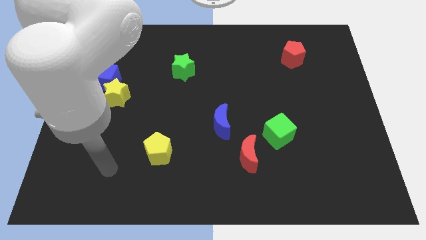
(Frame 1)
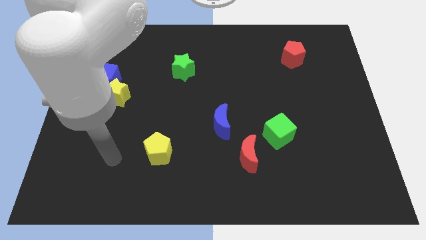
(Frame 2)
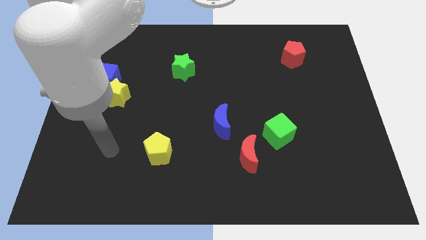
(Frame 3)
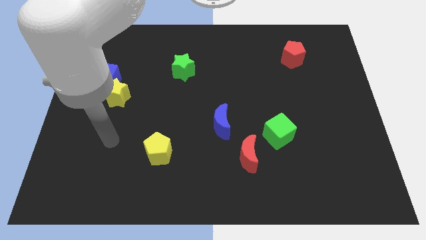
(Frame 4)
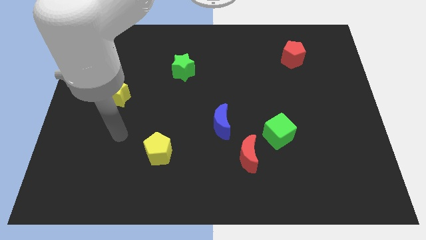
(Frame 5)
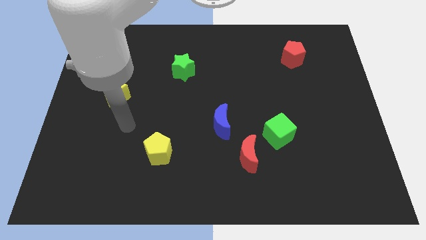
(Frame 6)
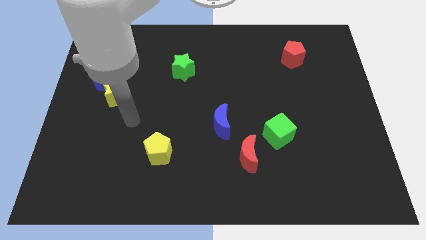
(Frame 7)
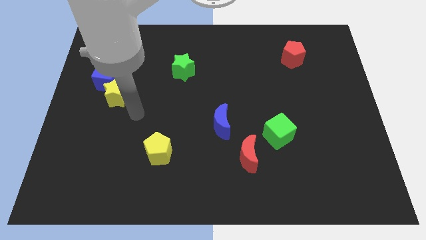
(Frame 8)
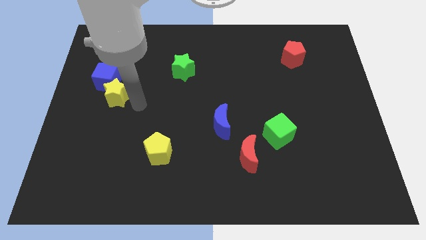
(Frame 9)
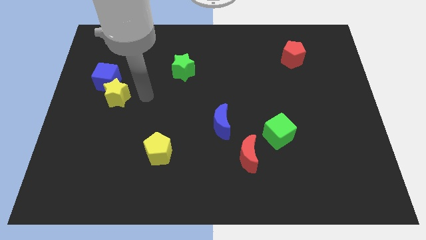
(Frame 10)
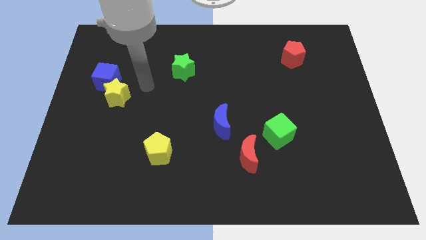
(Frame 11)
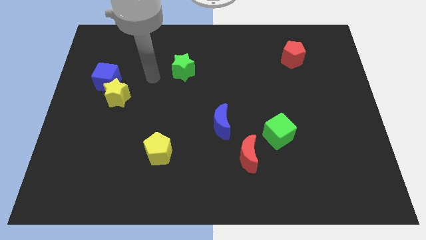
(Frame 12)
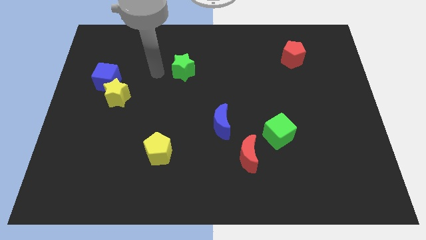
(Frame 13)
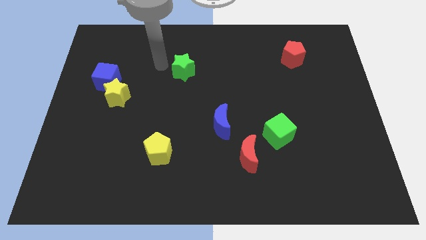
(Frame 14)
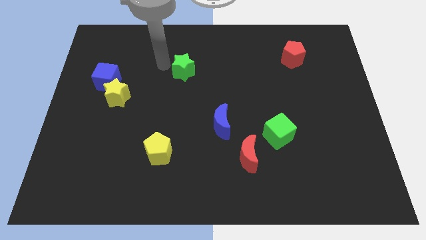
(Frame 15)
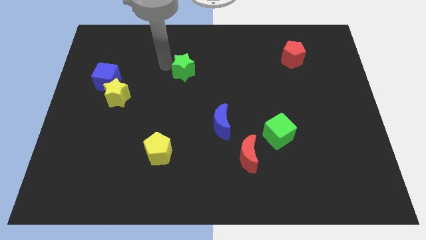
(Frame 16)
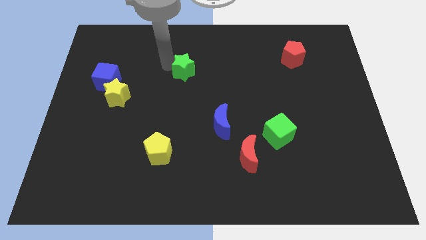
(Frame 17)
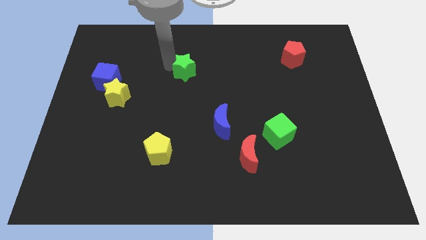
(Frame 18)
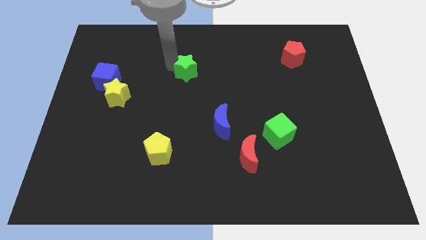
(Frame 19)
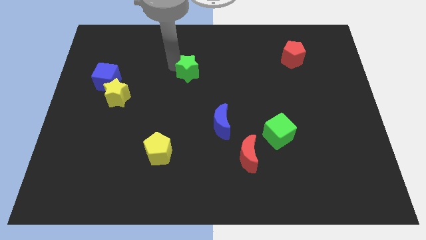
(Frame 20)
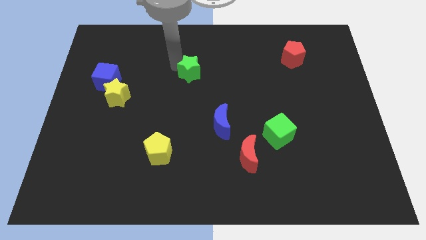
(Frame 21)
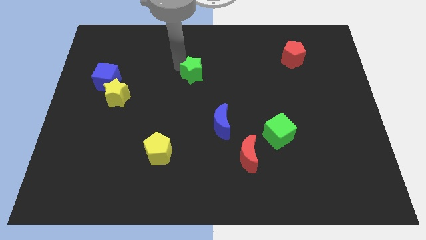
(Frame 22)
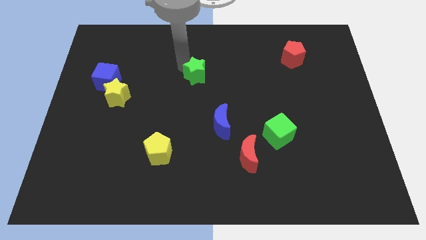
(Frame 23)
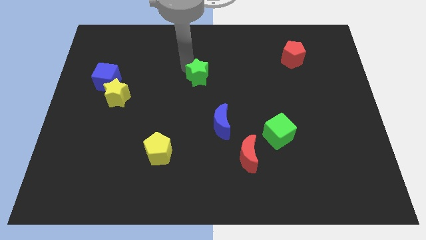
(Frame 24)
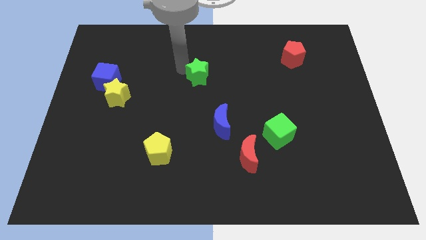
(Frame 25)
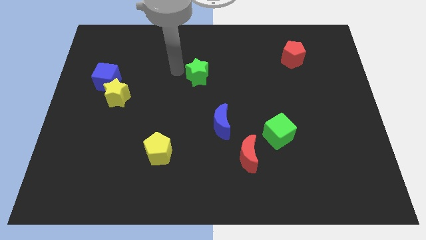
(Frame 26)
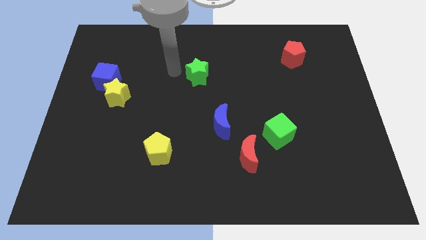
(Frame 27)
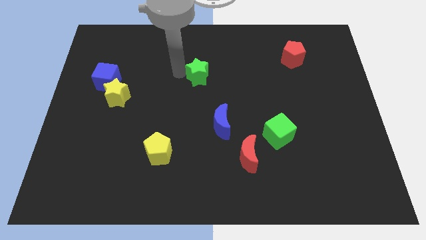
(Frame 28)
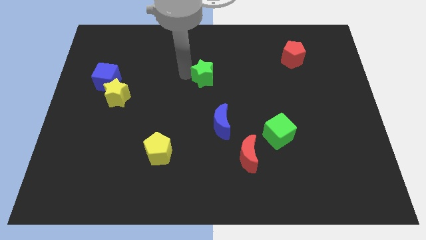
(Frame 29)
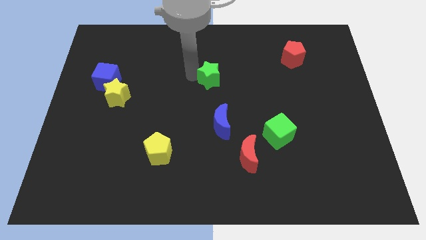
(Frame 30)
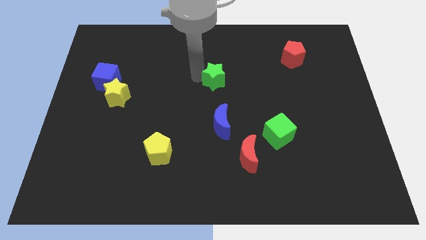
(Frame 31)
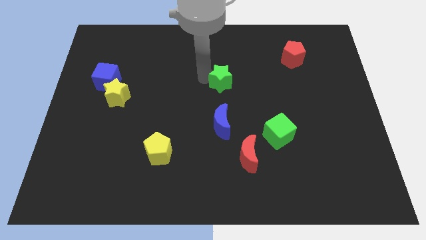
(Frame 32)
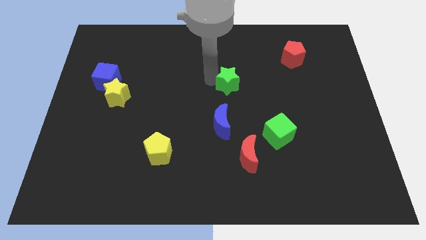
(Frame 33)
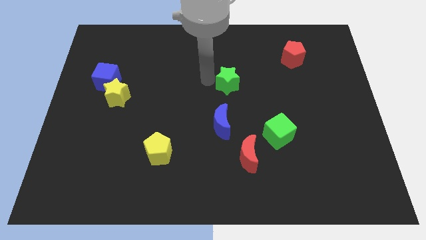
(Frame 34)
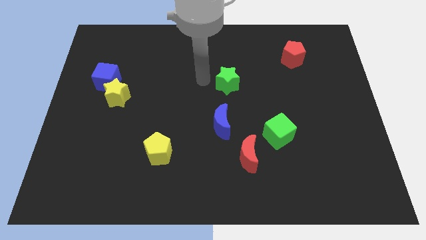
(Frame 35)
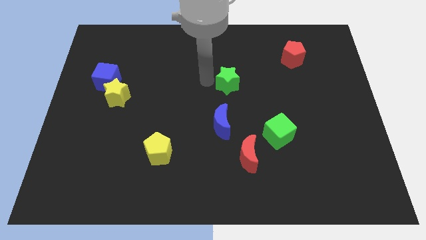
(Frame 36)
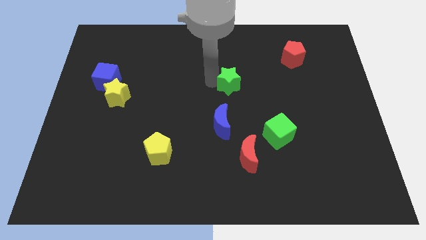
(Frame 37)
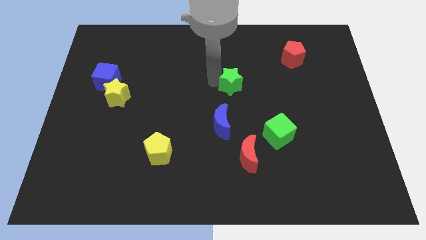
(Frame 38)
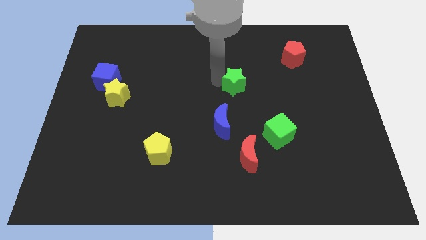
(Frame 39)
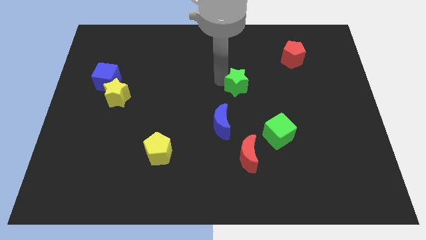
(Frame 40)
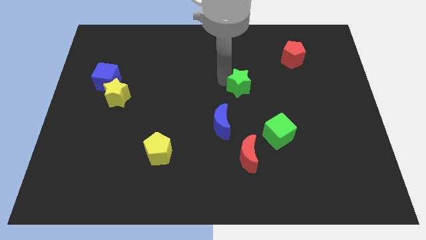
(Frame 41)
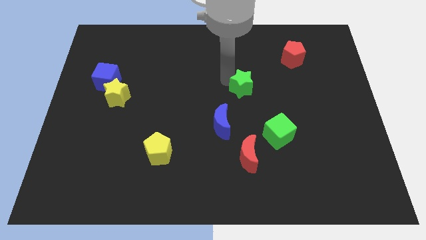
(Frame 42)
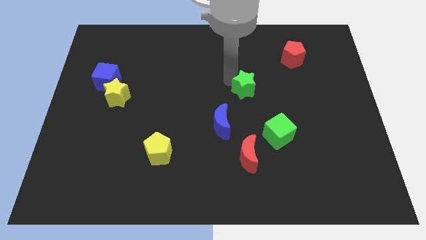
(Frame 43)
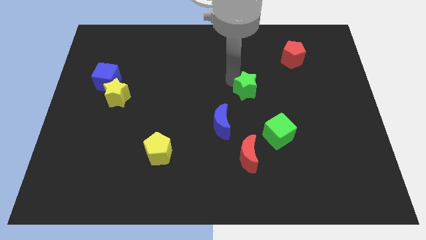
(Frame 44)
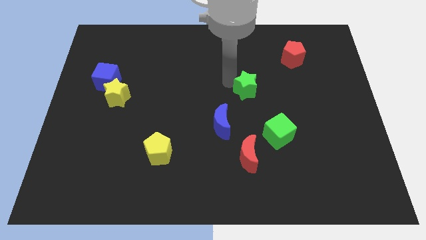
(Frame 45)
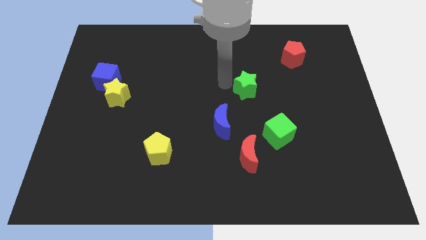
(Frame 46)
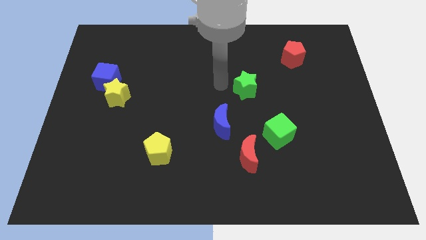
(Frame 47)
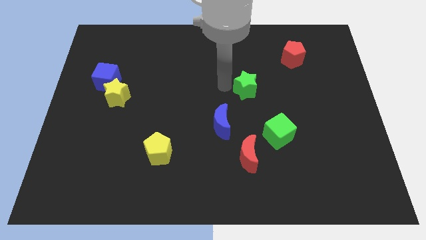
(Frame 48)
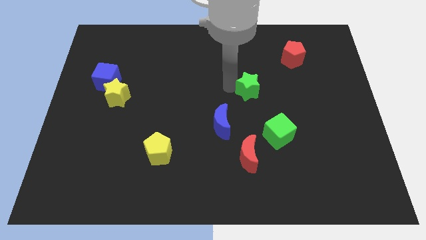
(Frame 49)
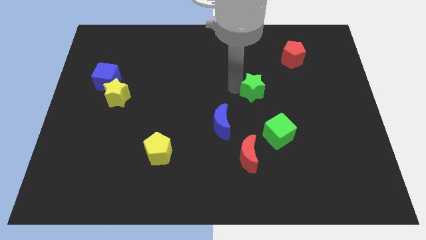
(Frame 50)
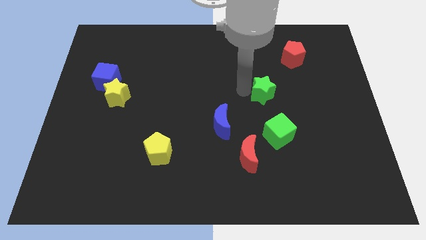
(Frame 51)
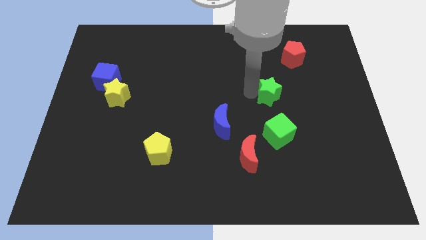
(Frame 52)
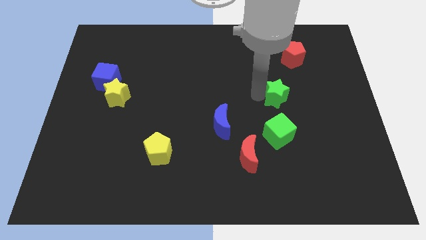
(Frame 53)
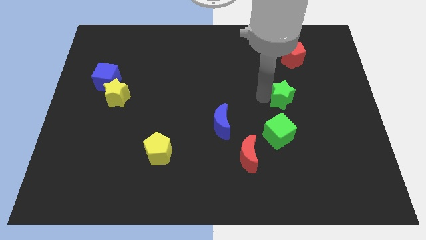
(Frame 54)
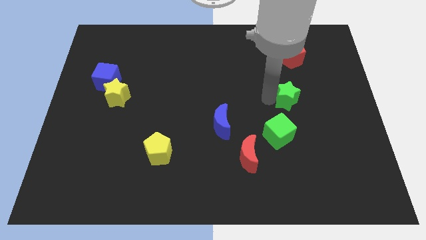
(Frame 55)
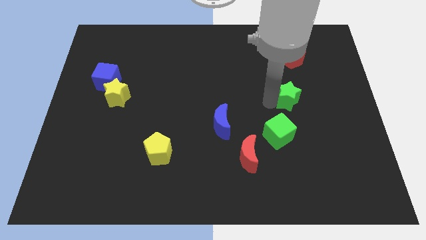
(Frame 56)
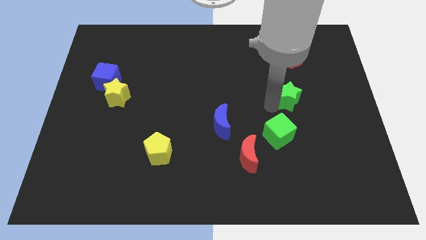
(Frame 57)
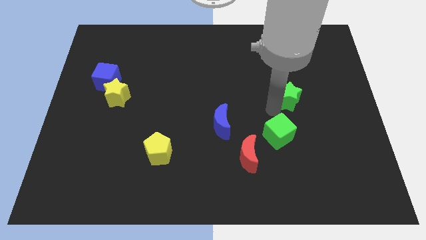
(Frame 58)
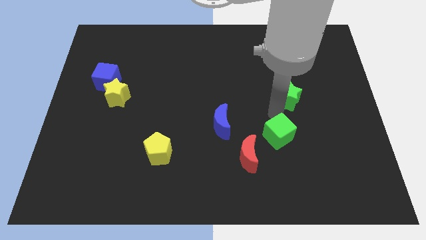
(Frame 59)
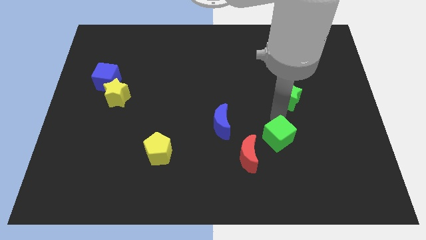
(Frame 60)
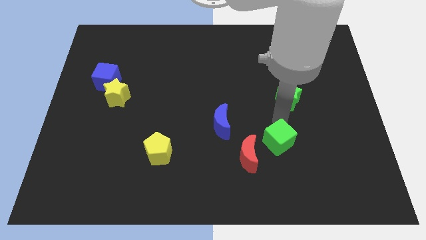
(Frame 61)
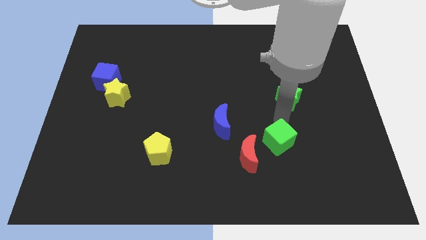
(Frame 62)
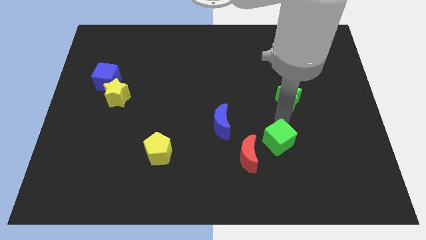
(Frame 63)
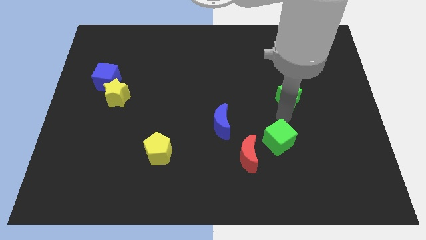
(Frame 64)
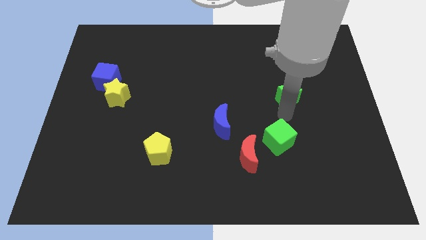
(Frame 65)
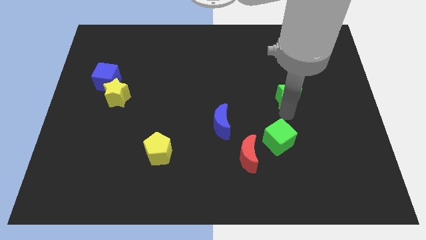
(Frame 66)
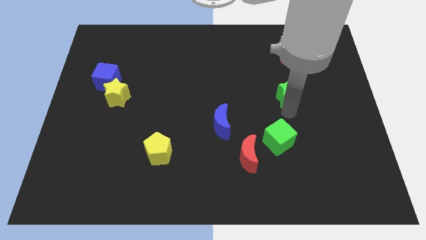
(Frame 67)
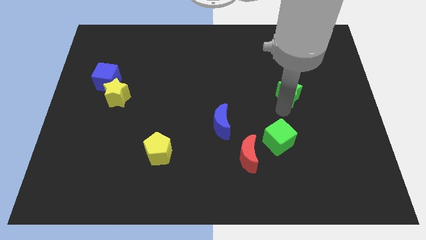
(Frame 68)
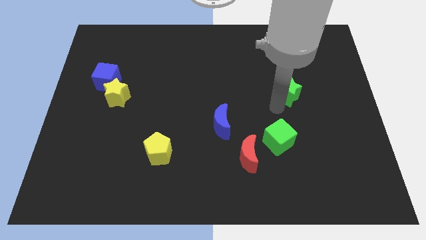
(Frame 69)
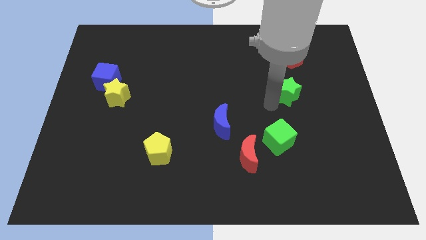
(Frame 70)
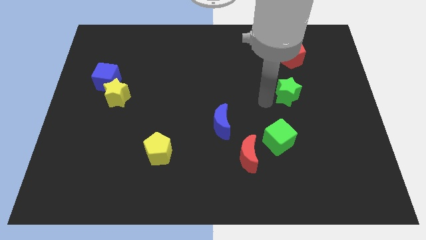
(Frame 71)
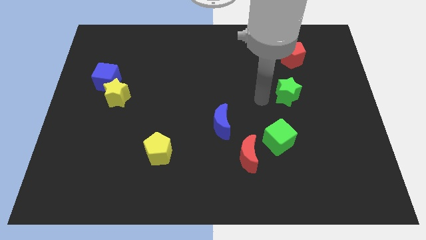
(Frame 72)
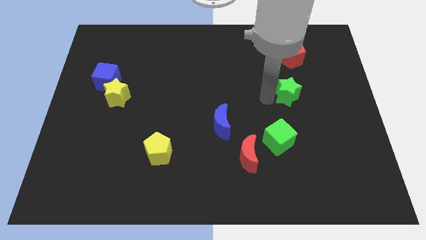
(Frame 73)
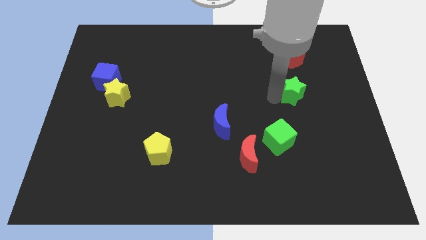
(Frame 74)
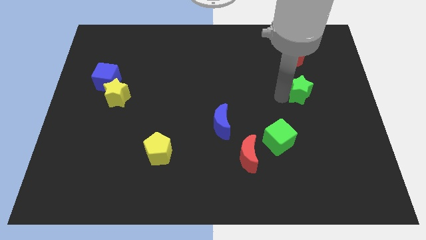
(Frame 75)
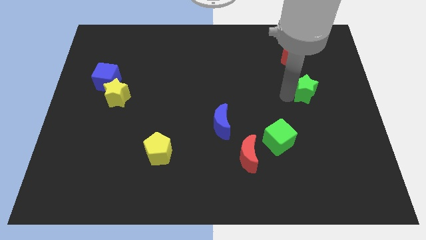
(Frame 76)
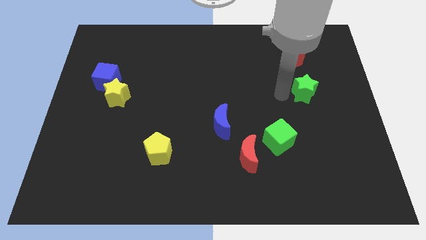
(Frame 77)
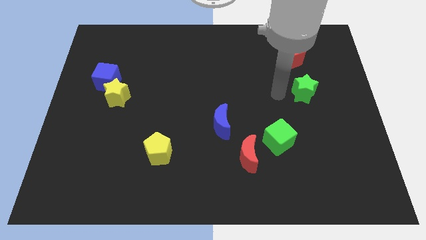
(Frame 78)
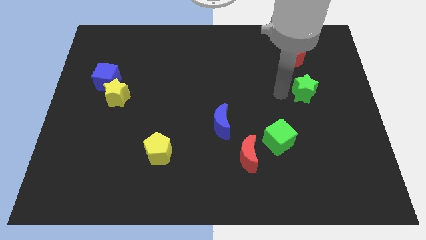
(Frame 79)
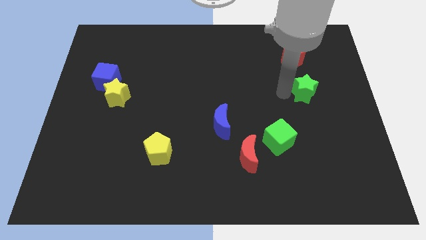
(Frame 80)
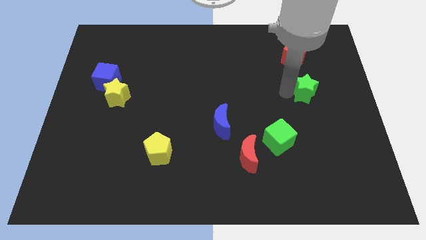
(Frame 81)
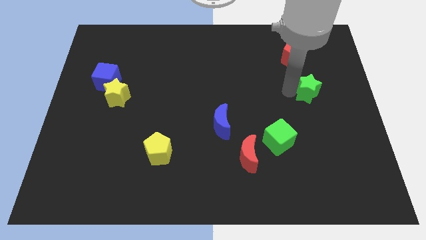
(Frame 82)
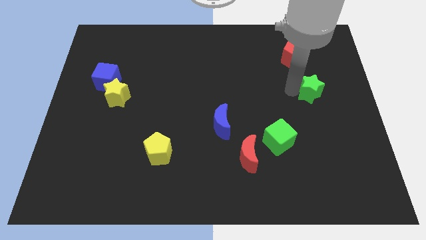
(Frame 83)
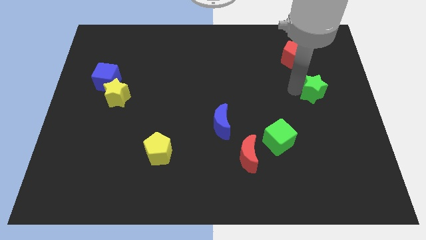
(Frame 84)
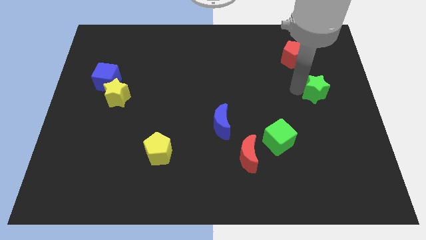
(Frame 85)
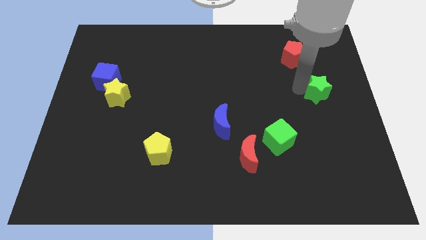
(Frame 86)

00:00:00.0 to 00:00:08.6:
slide the green star to the right side
